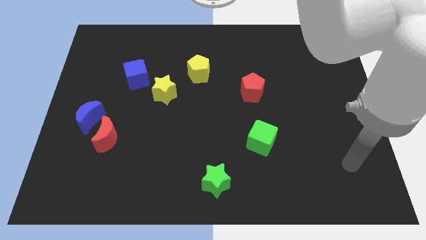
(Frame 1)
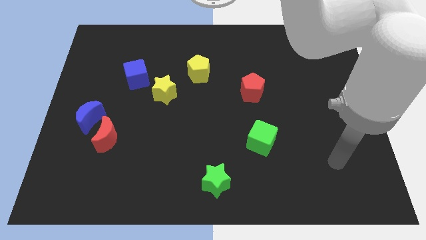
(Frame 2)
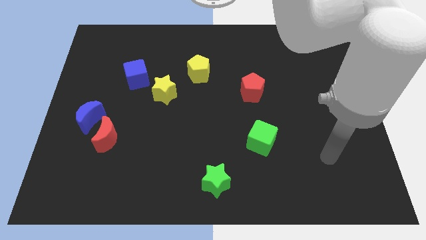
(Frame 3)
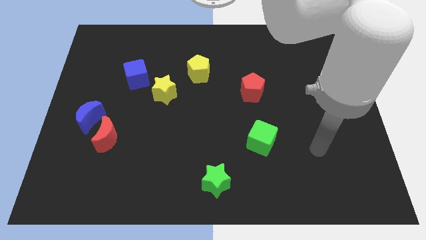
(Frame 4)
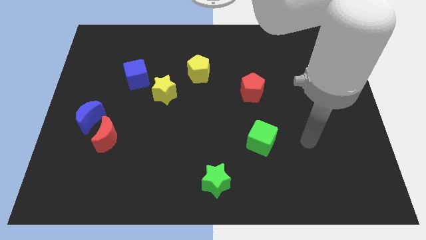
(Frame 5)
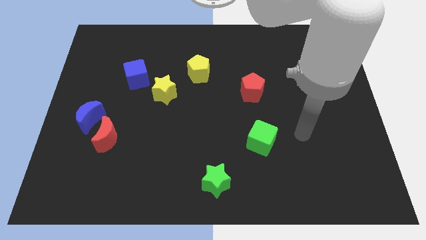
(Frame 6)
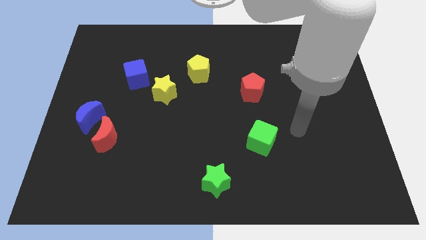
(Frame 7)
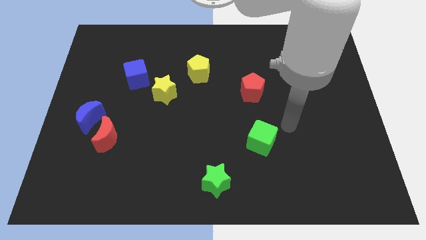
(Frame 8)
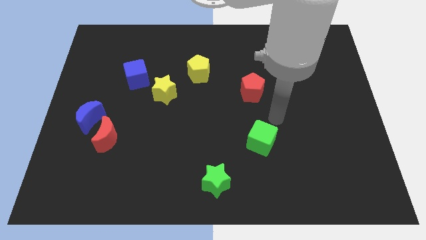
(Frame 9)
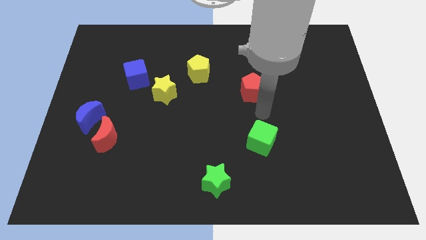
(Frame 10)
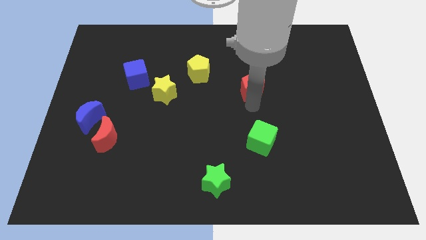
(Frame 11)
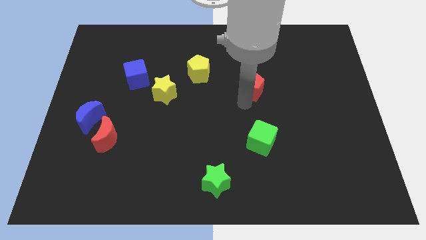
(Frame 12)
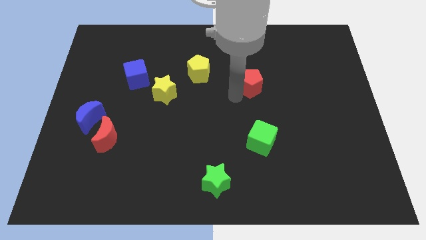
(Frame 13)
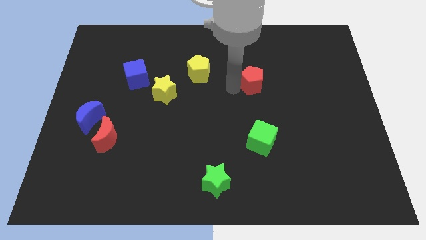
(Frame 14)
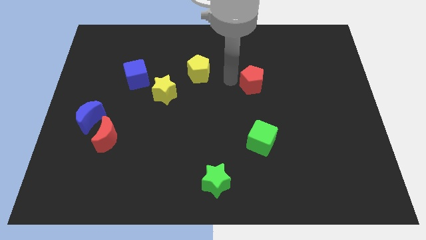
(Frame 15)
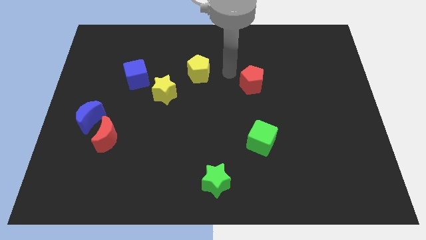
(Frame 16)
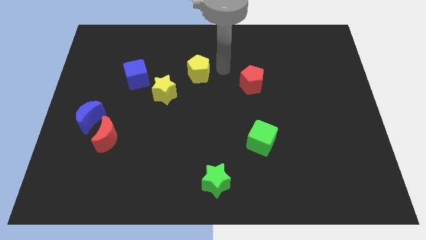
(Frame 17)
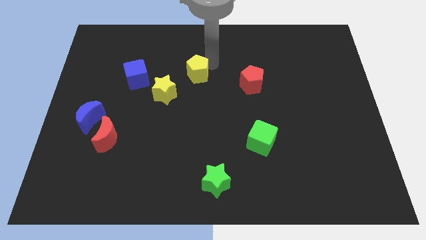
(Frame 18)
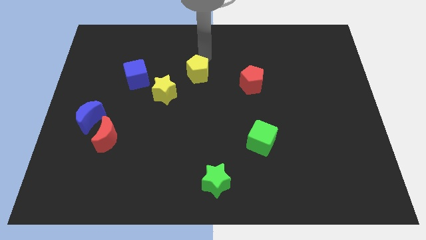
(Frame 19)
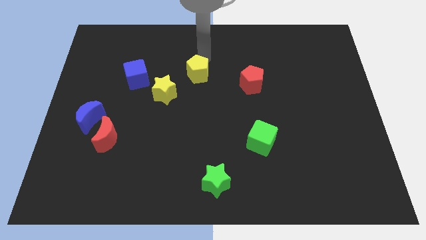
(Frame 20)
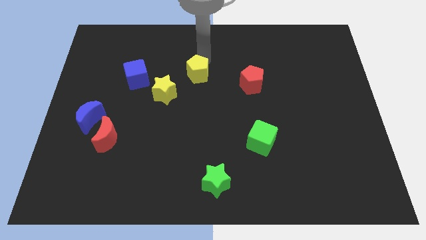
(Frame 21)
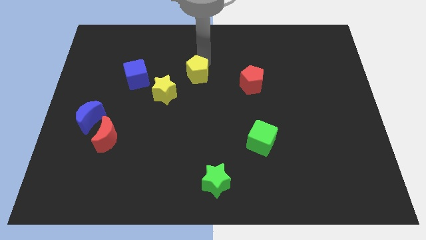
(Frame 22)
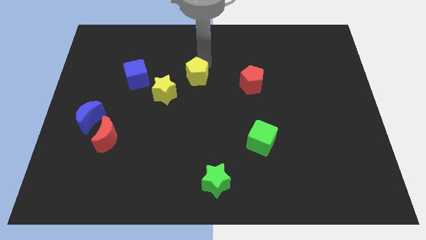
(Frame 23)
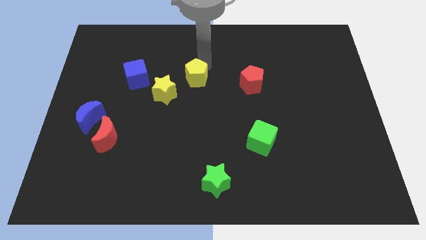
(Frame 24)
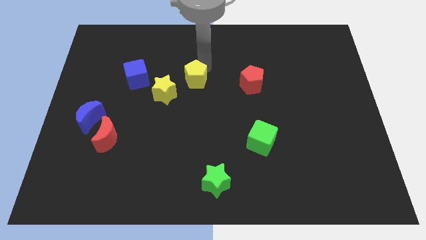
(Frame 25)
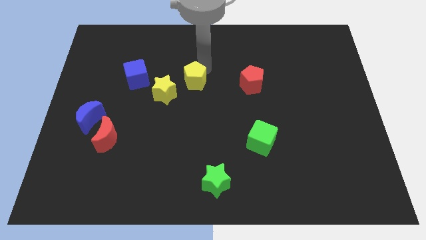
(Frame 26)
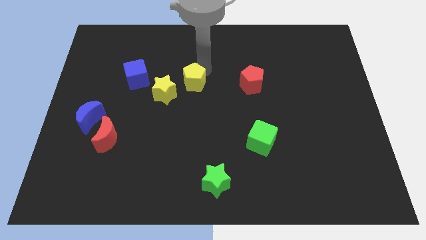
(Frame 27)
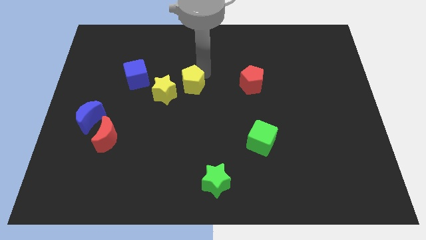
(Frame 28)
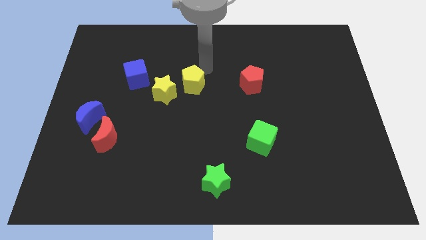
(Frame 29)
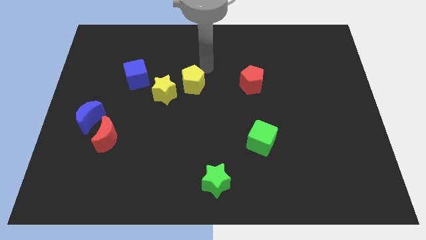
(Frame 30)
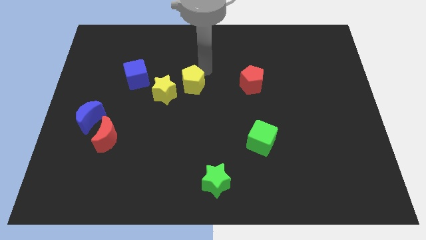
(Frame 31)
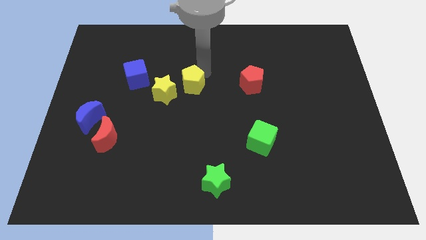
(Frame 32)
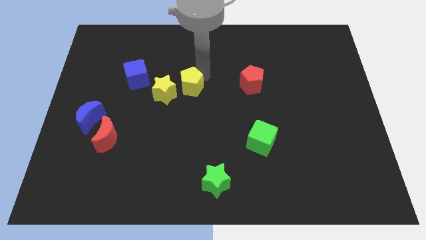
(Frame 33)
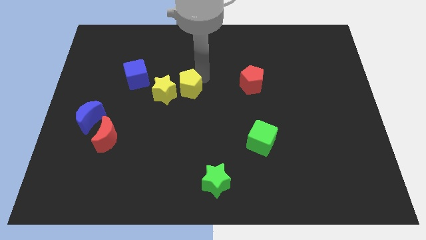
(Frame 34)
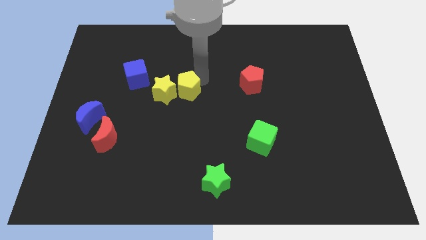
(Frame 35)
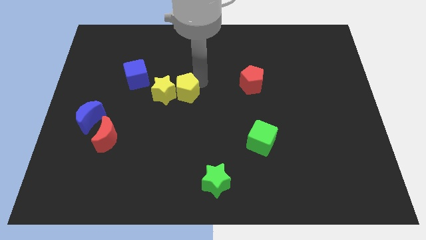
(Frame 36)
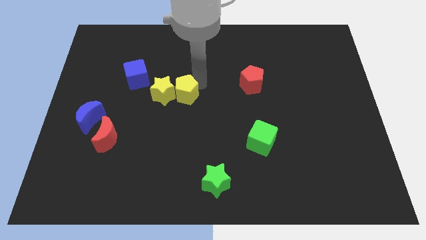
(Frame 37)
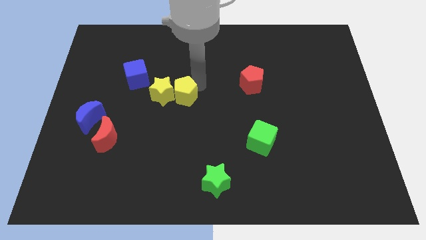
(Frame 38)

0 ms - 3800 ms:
push the yellow pentagon slightly down and to the left diagonally

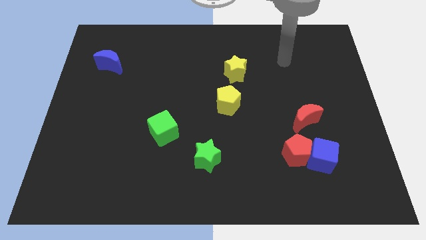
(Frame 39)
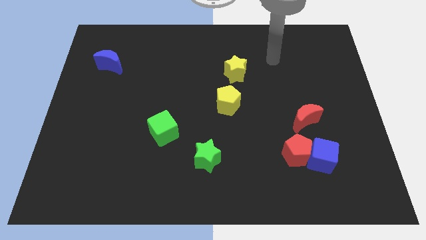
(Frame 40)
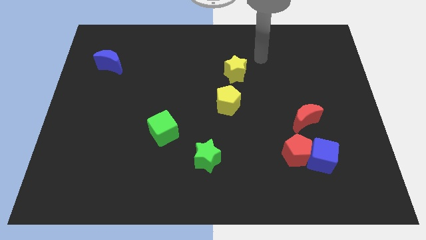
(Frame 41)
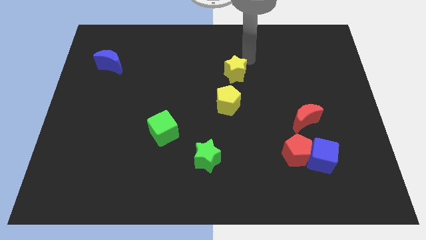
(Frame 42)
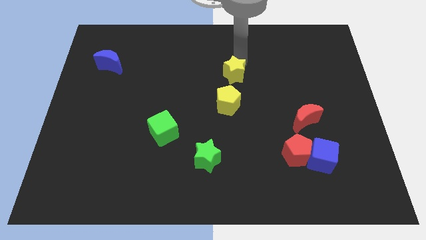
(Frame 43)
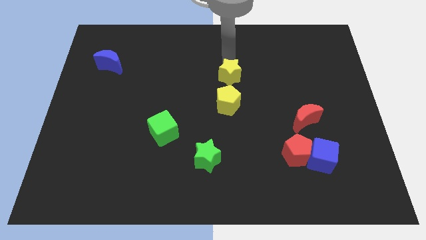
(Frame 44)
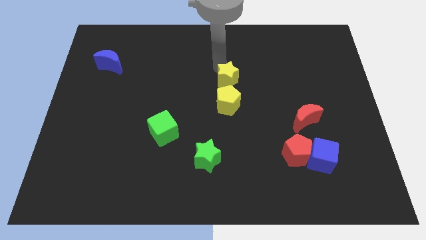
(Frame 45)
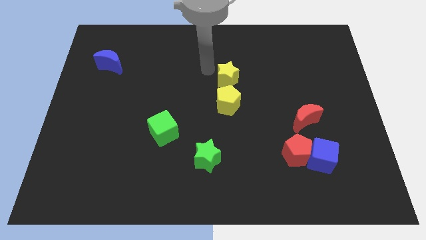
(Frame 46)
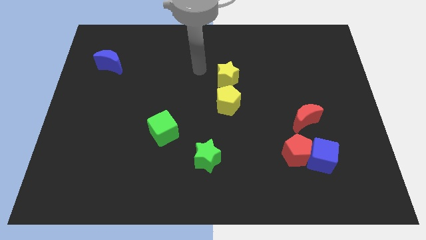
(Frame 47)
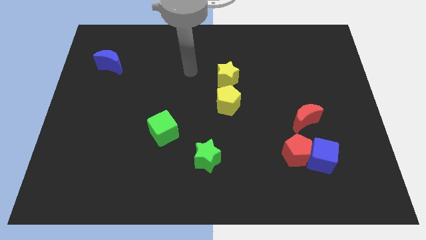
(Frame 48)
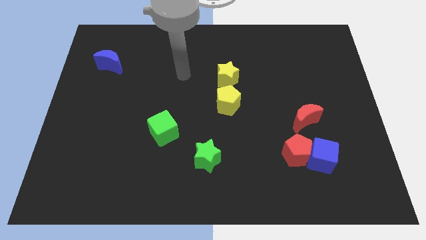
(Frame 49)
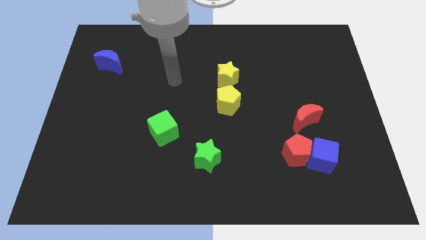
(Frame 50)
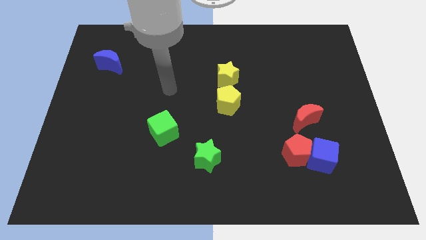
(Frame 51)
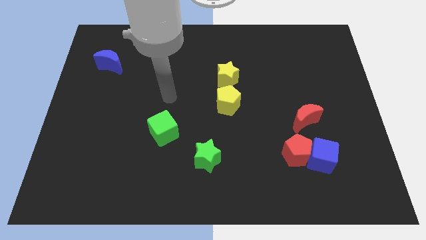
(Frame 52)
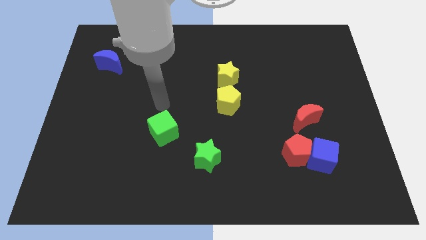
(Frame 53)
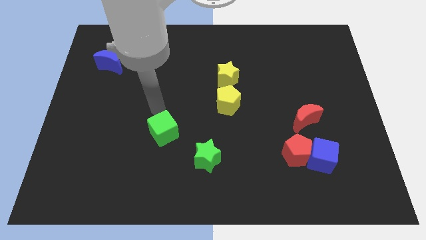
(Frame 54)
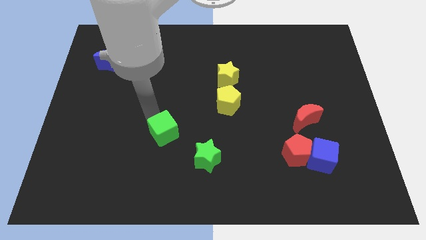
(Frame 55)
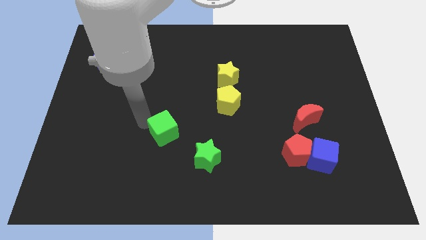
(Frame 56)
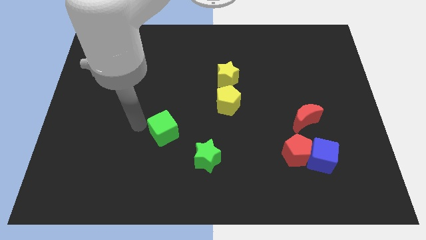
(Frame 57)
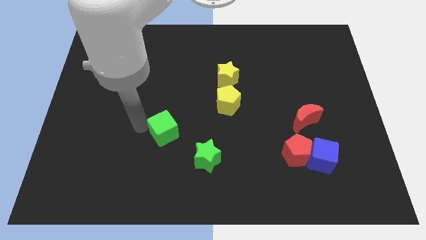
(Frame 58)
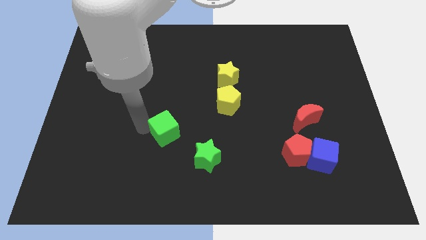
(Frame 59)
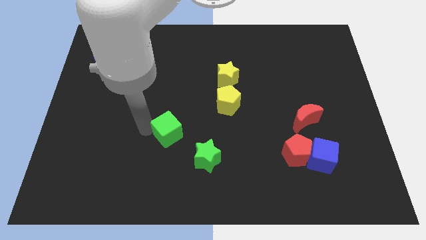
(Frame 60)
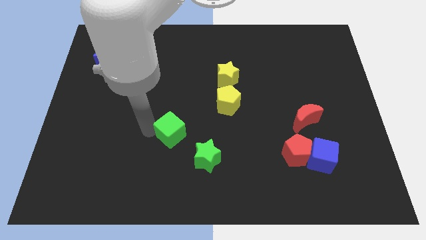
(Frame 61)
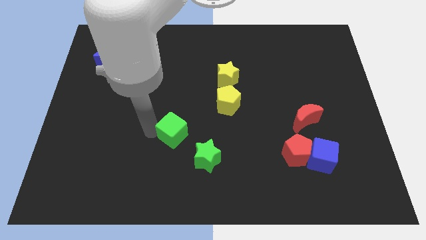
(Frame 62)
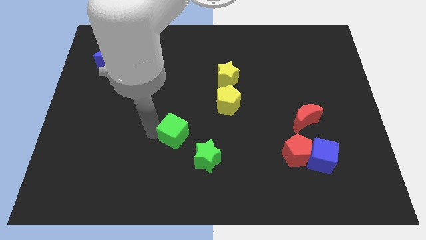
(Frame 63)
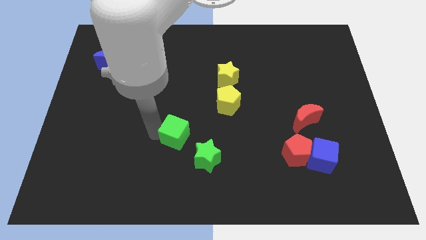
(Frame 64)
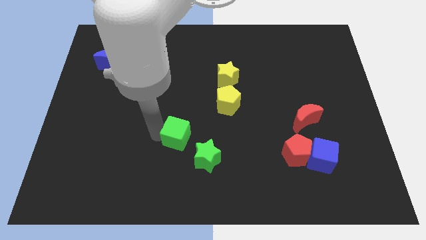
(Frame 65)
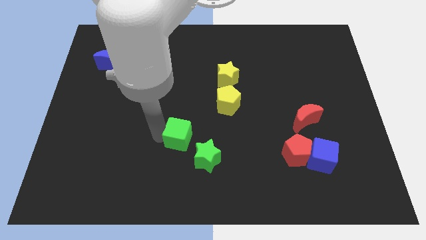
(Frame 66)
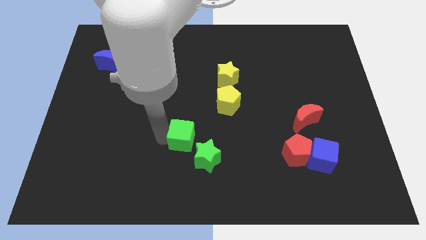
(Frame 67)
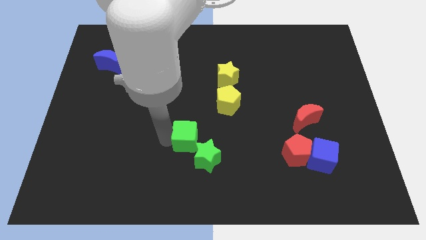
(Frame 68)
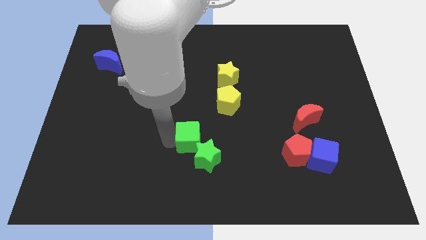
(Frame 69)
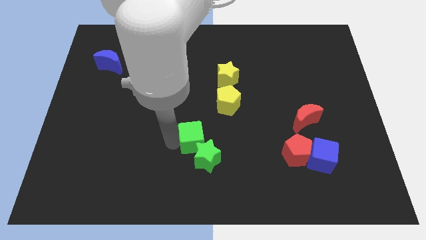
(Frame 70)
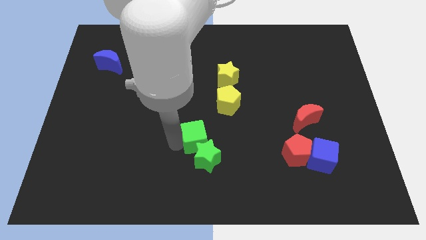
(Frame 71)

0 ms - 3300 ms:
slightly slide the green cube to the right

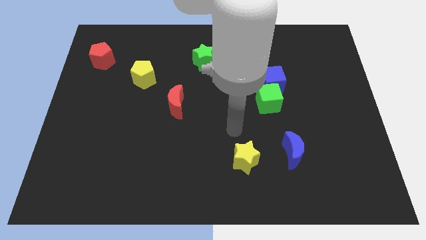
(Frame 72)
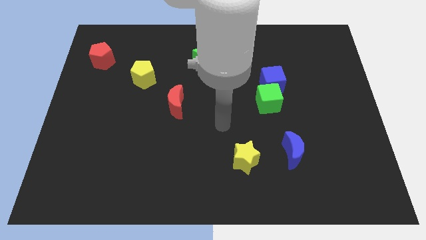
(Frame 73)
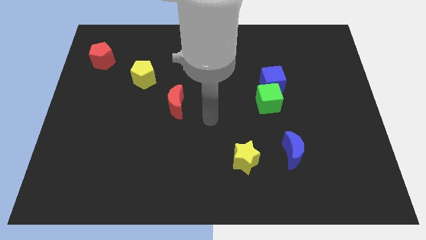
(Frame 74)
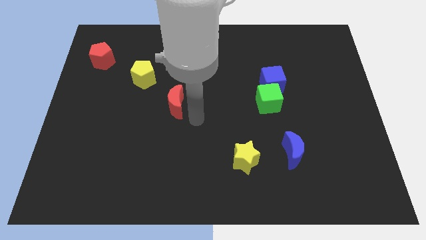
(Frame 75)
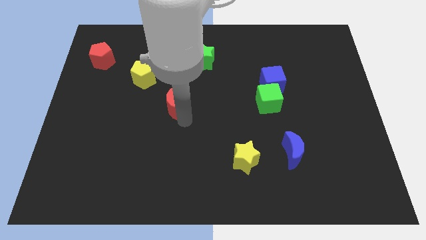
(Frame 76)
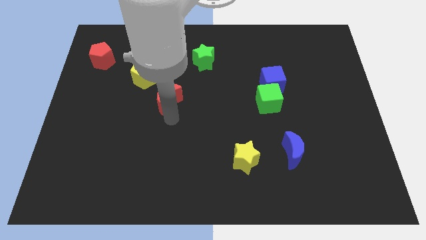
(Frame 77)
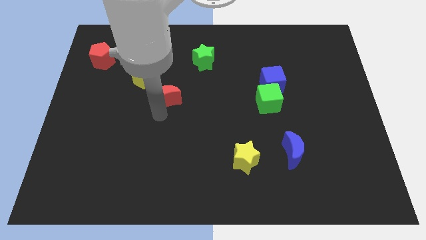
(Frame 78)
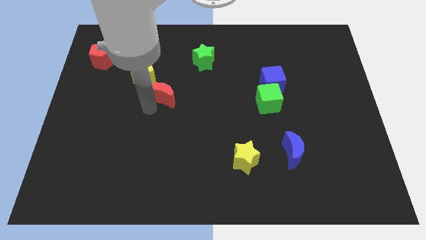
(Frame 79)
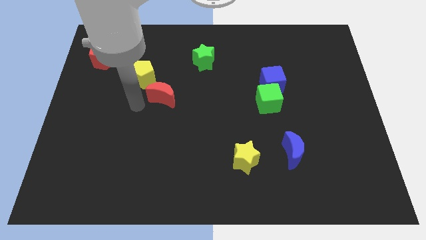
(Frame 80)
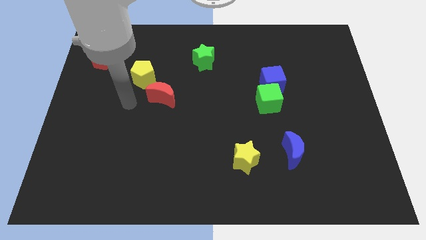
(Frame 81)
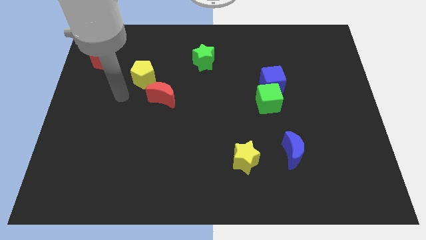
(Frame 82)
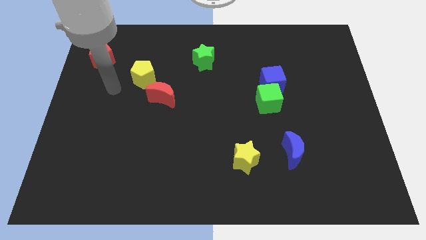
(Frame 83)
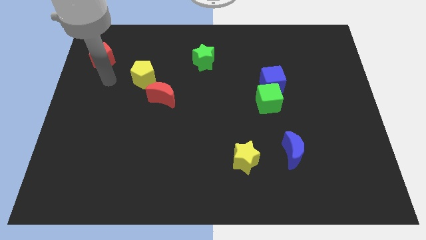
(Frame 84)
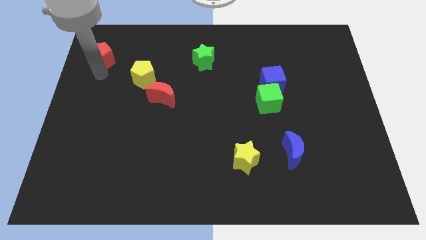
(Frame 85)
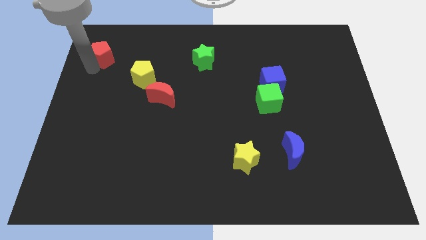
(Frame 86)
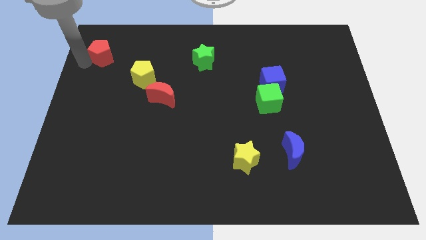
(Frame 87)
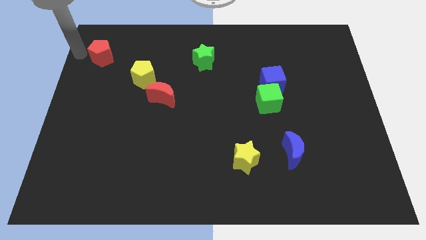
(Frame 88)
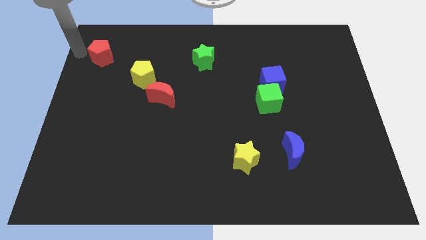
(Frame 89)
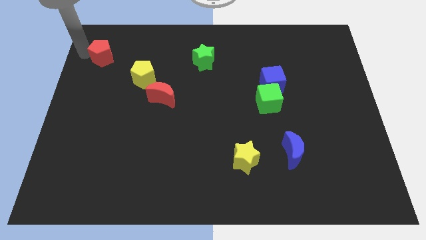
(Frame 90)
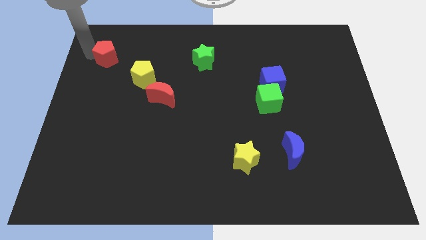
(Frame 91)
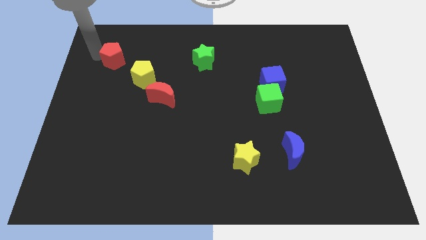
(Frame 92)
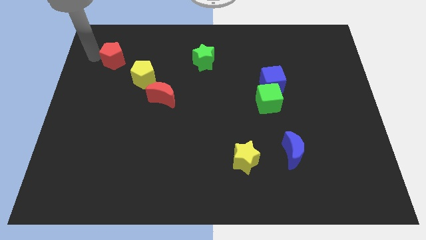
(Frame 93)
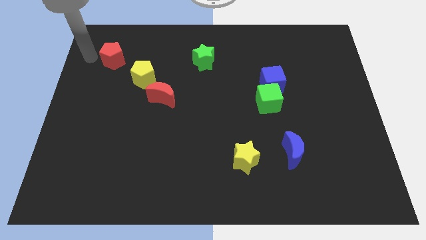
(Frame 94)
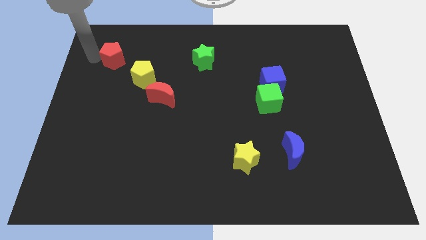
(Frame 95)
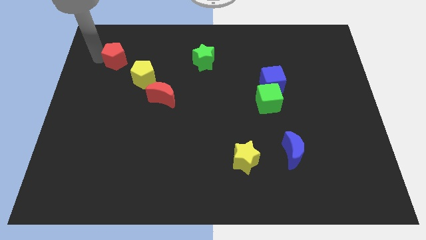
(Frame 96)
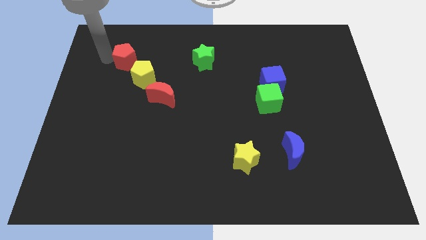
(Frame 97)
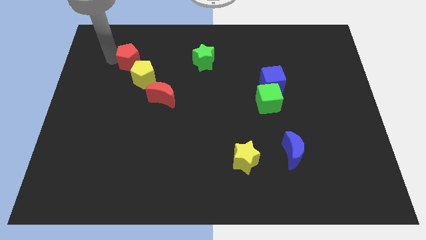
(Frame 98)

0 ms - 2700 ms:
slide the red pentagon a little to the right
